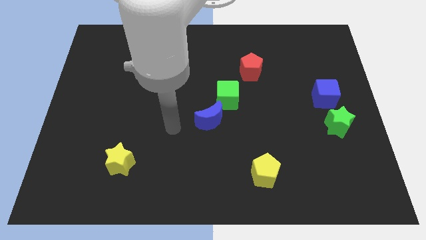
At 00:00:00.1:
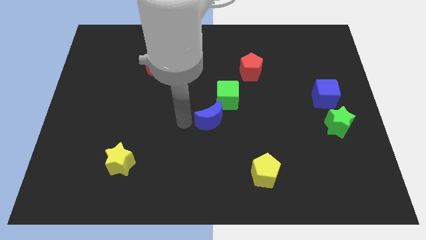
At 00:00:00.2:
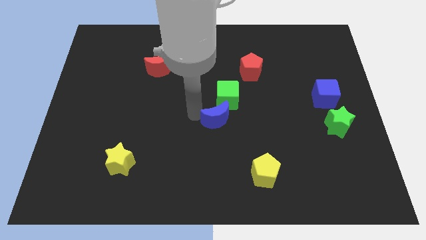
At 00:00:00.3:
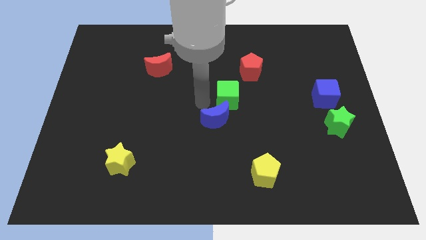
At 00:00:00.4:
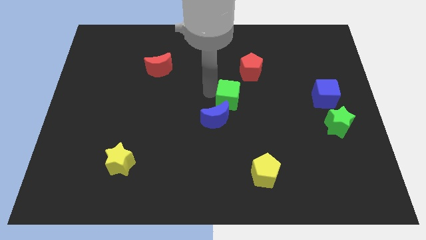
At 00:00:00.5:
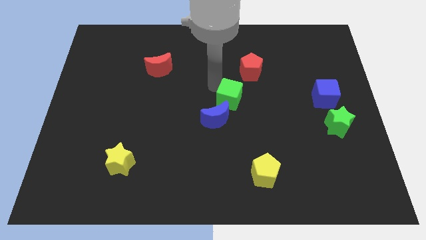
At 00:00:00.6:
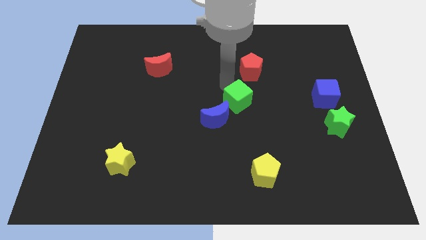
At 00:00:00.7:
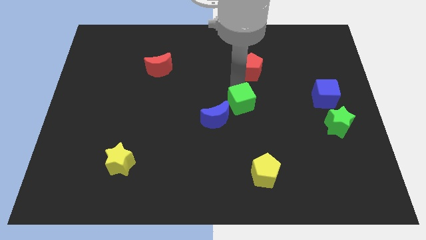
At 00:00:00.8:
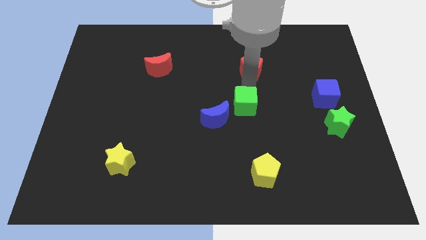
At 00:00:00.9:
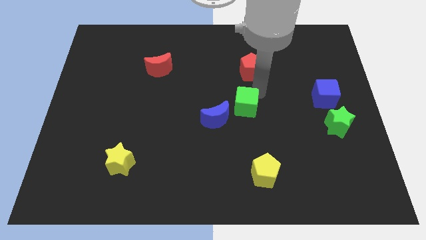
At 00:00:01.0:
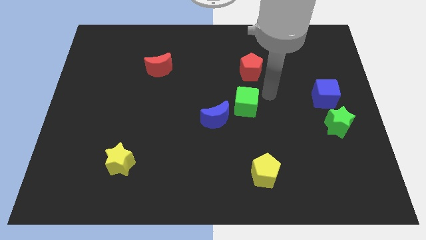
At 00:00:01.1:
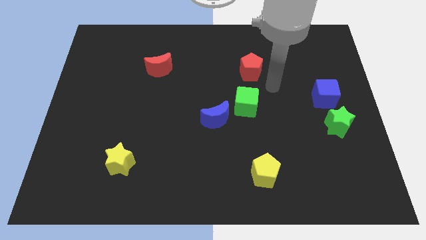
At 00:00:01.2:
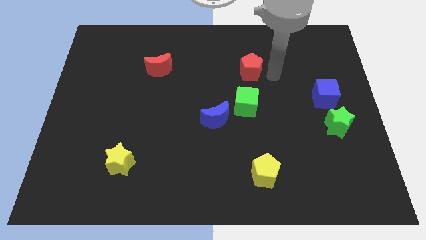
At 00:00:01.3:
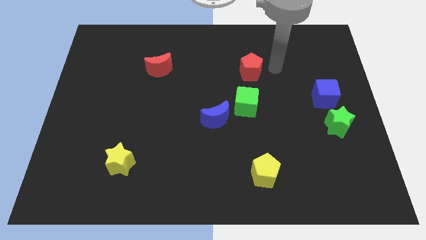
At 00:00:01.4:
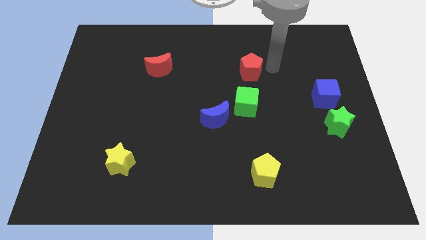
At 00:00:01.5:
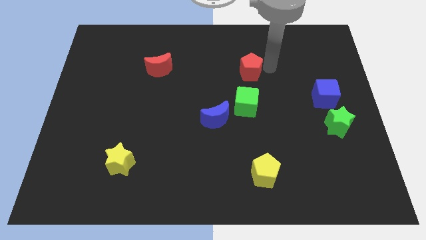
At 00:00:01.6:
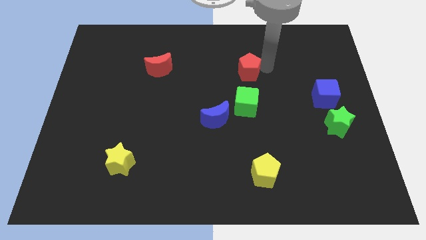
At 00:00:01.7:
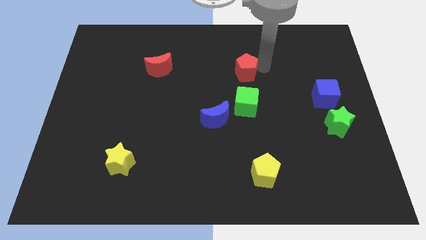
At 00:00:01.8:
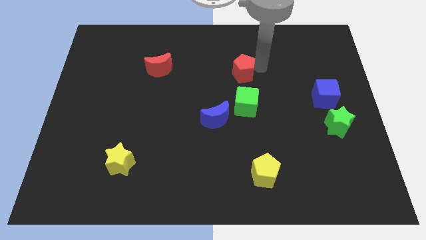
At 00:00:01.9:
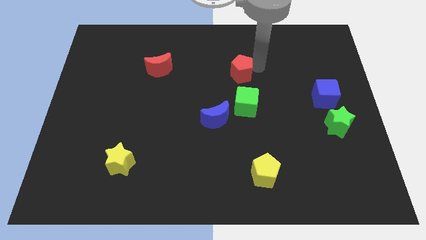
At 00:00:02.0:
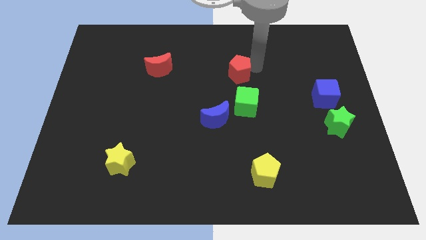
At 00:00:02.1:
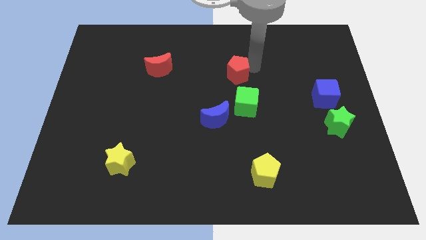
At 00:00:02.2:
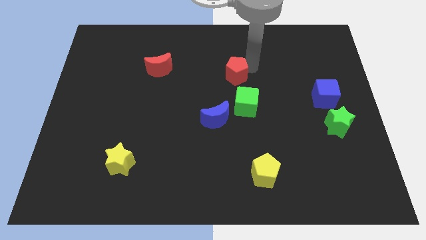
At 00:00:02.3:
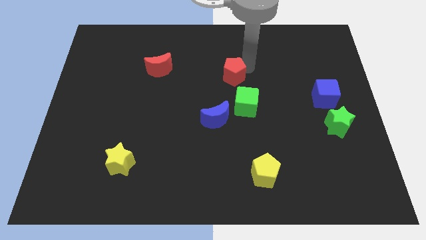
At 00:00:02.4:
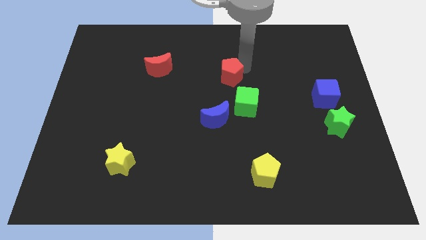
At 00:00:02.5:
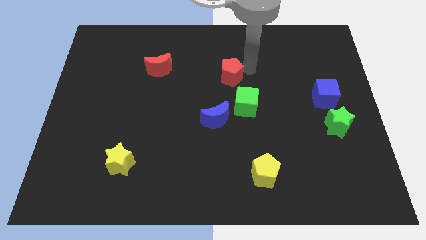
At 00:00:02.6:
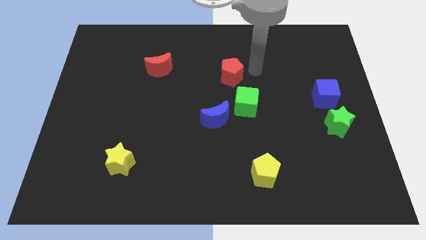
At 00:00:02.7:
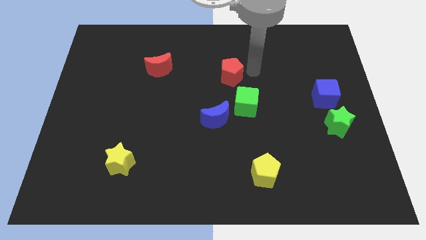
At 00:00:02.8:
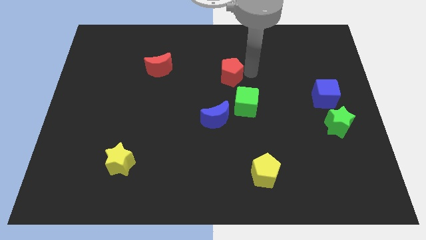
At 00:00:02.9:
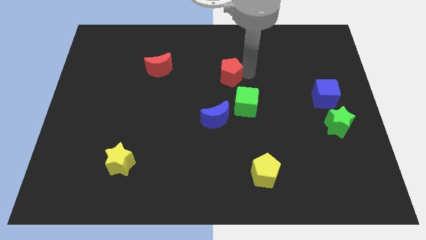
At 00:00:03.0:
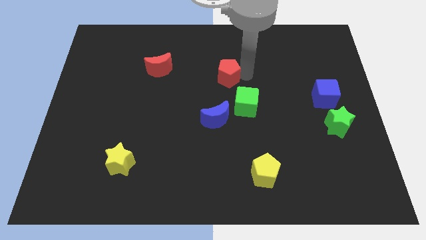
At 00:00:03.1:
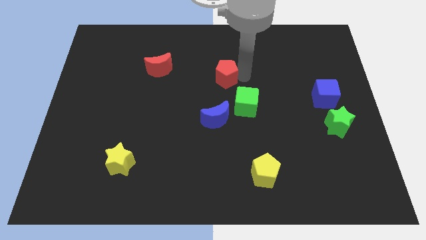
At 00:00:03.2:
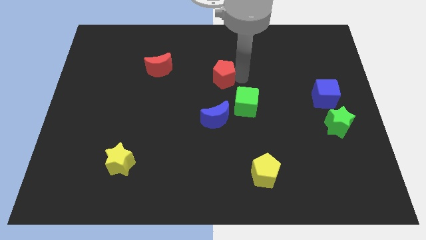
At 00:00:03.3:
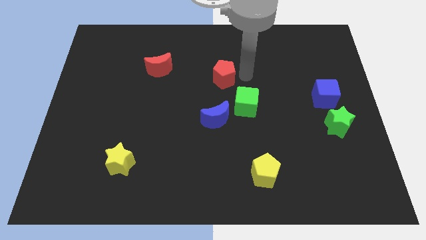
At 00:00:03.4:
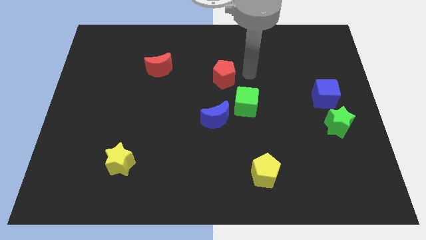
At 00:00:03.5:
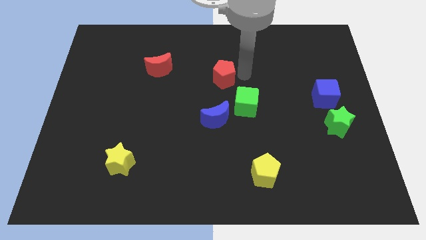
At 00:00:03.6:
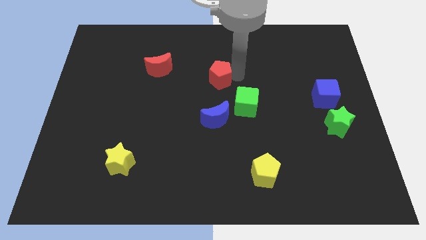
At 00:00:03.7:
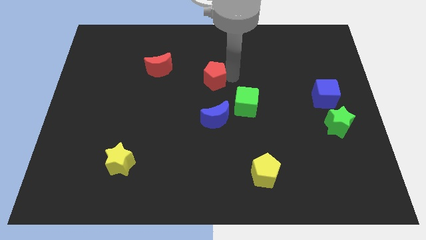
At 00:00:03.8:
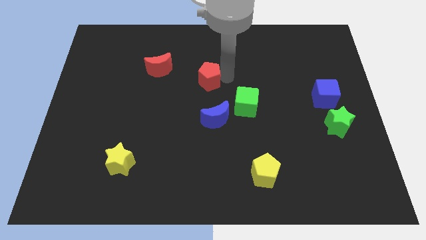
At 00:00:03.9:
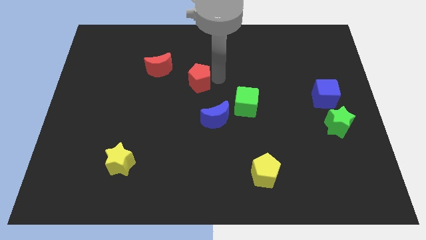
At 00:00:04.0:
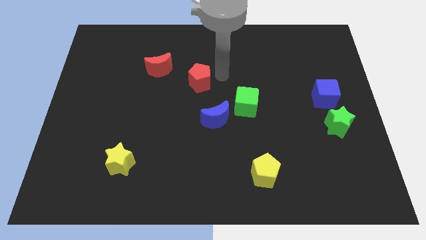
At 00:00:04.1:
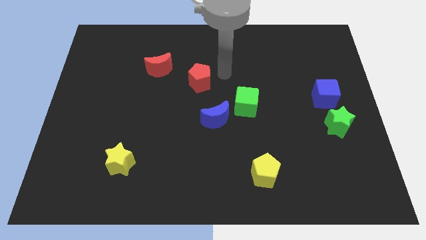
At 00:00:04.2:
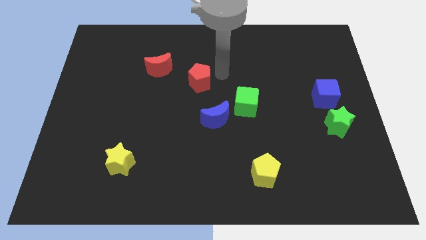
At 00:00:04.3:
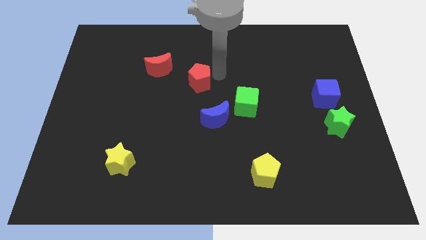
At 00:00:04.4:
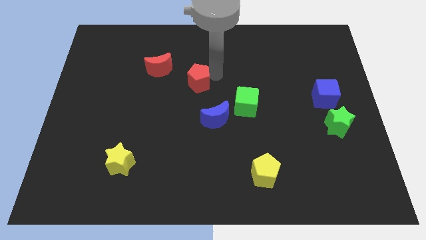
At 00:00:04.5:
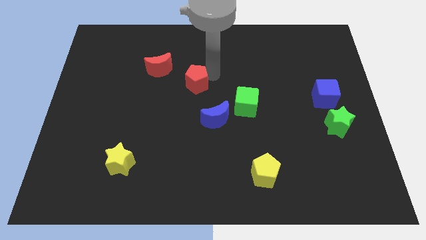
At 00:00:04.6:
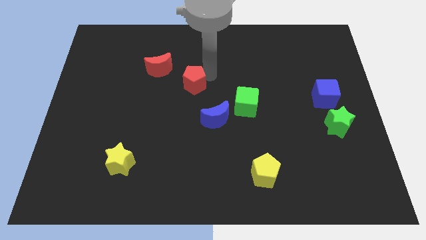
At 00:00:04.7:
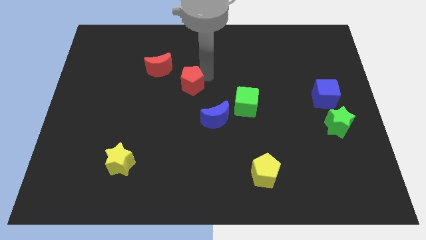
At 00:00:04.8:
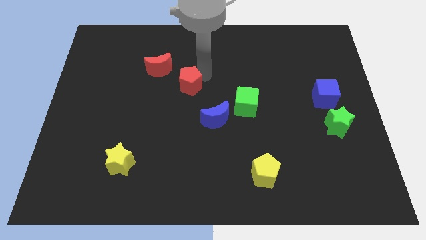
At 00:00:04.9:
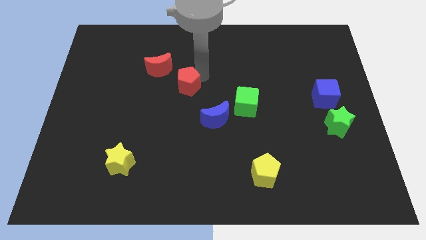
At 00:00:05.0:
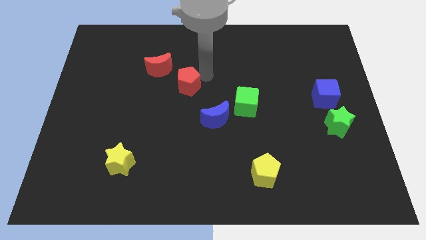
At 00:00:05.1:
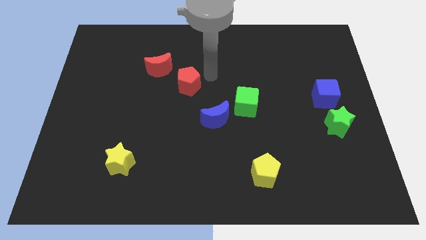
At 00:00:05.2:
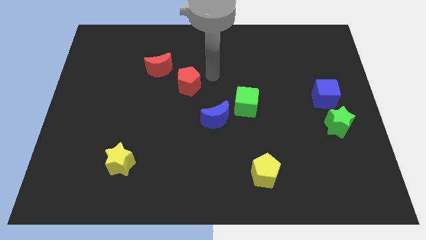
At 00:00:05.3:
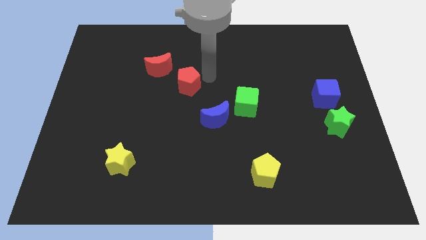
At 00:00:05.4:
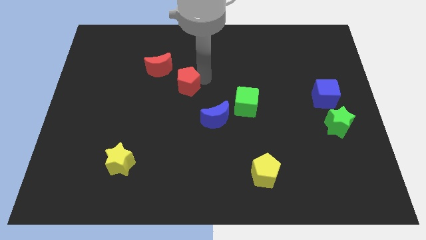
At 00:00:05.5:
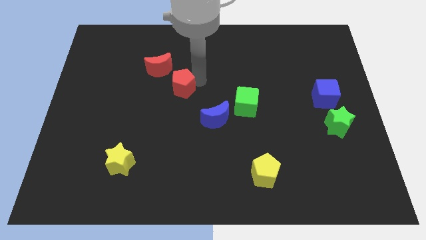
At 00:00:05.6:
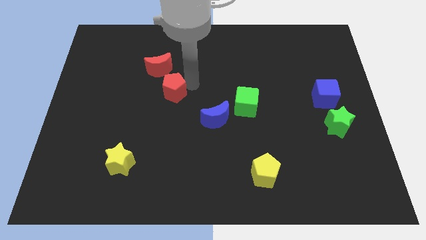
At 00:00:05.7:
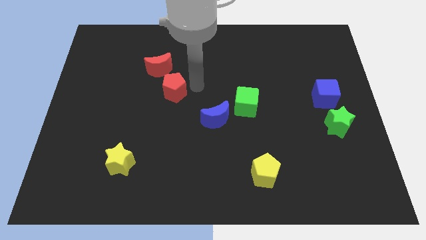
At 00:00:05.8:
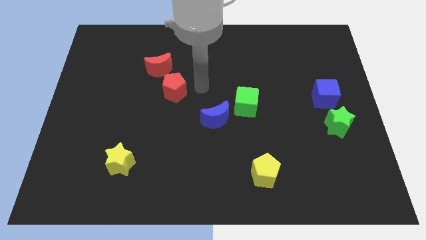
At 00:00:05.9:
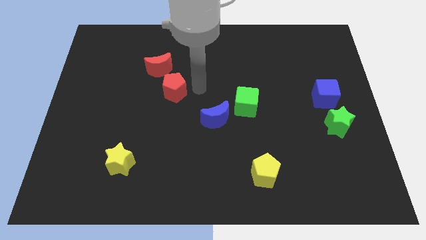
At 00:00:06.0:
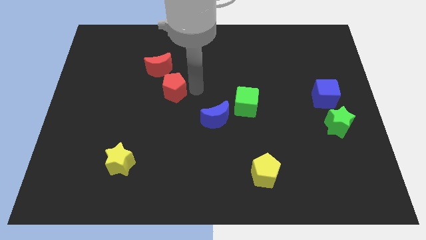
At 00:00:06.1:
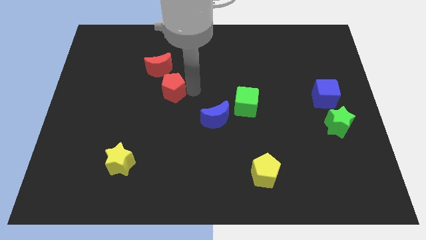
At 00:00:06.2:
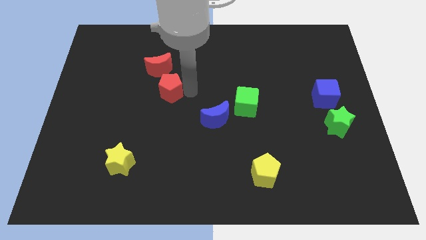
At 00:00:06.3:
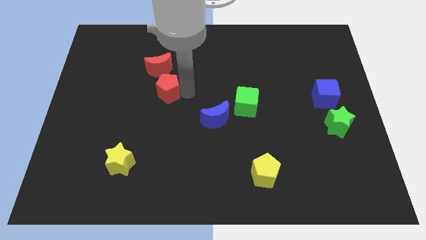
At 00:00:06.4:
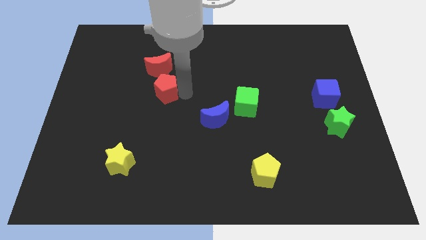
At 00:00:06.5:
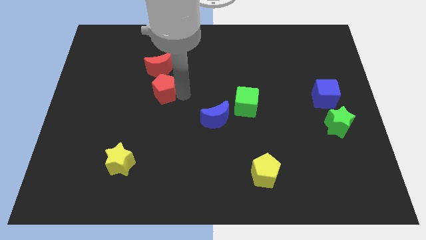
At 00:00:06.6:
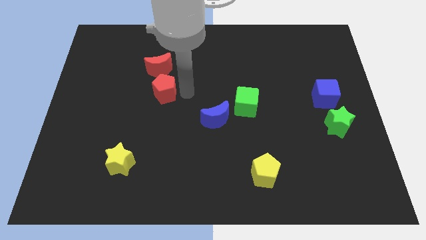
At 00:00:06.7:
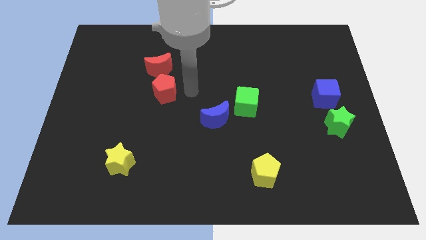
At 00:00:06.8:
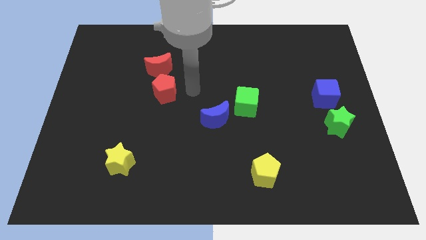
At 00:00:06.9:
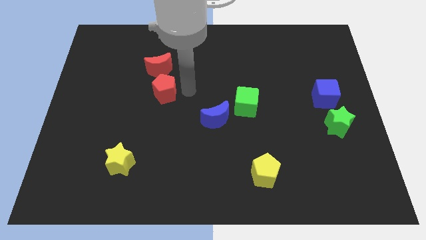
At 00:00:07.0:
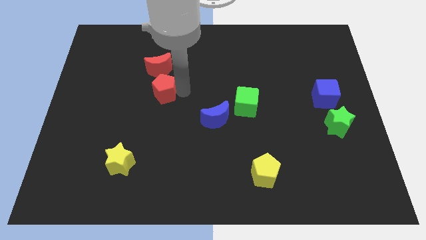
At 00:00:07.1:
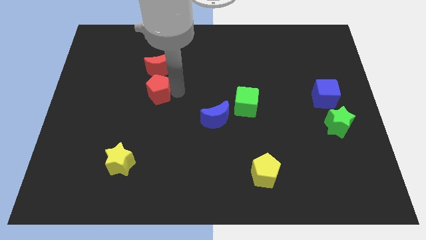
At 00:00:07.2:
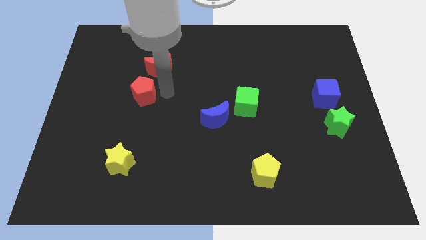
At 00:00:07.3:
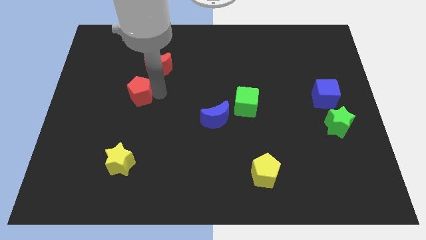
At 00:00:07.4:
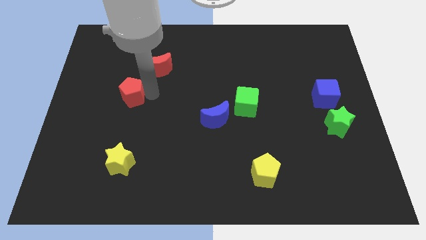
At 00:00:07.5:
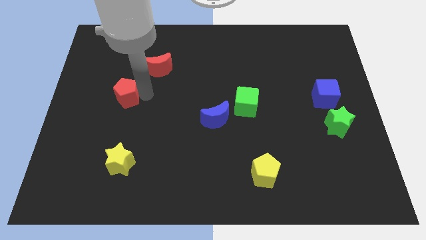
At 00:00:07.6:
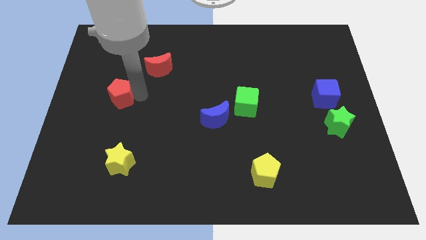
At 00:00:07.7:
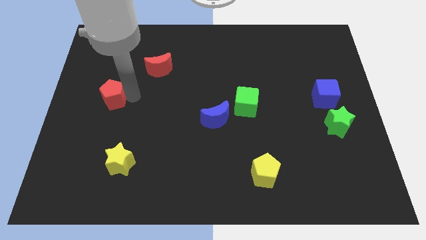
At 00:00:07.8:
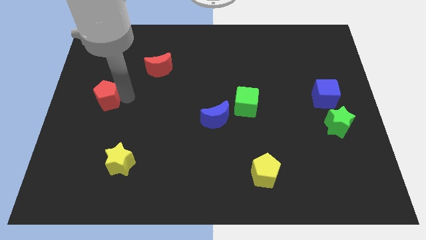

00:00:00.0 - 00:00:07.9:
push the red pentagon to the left side
